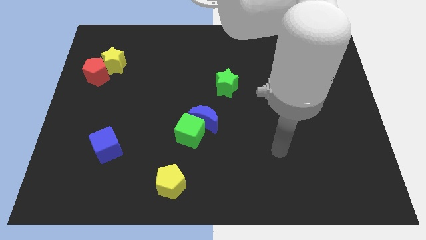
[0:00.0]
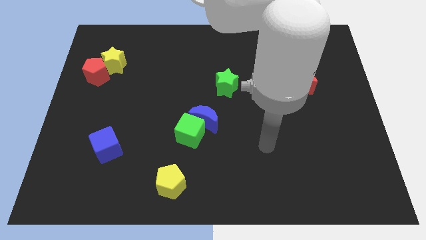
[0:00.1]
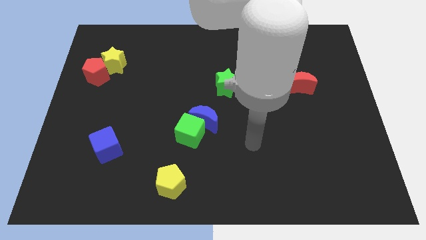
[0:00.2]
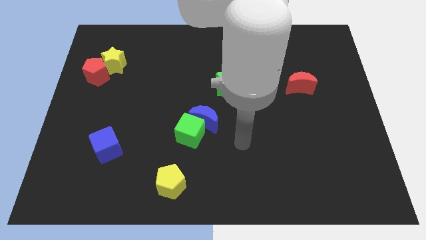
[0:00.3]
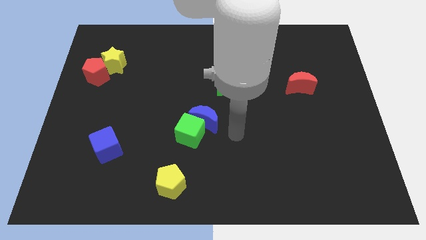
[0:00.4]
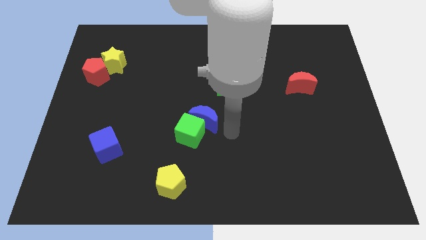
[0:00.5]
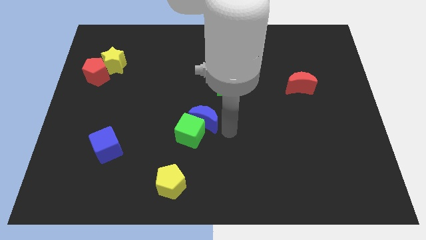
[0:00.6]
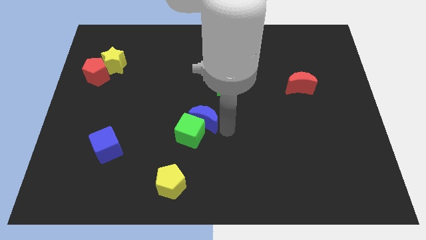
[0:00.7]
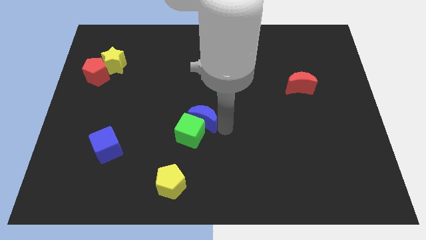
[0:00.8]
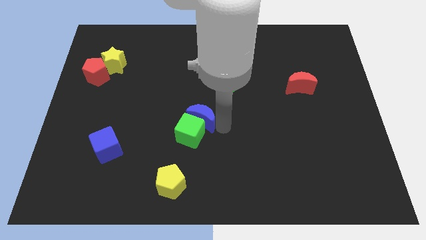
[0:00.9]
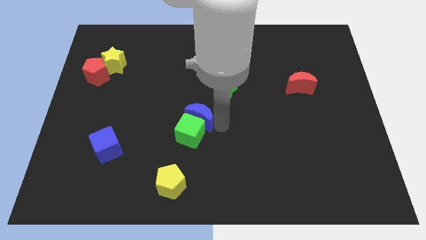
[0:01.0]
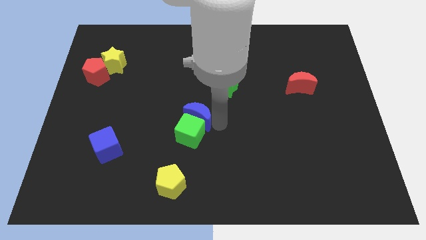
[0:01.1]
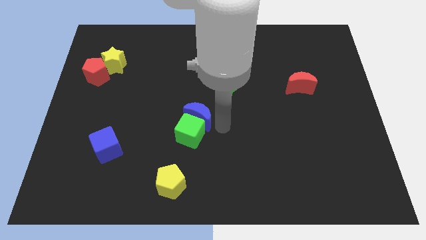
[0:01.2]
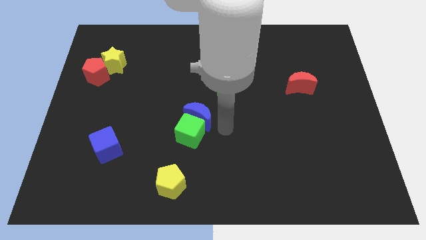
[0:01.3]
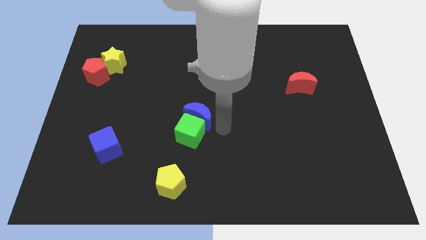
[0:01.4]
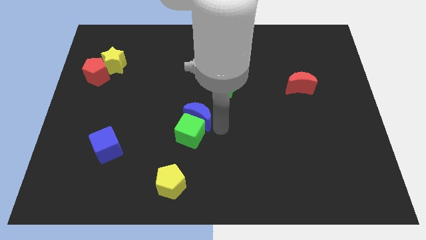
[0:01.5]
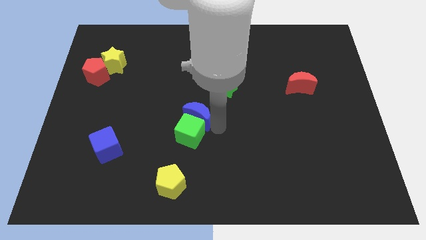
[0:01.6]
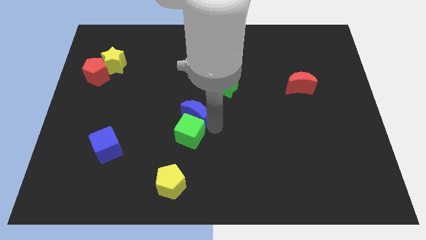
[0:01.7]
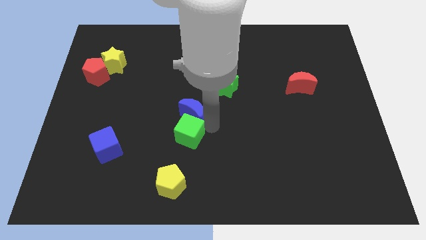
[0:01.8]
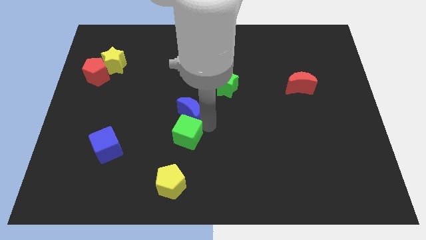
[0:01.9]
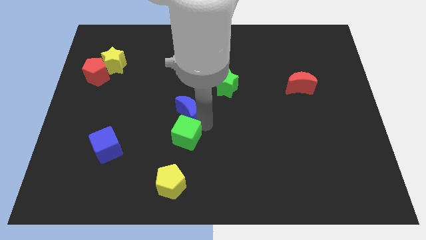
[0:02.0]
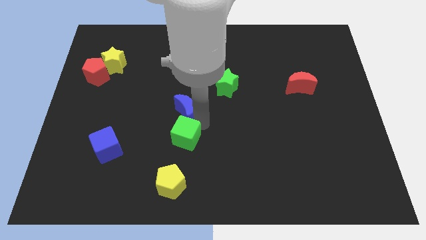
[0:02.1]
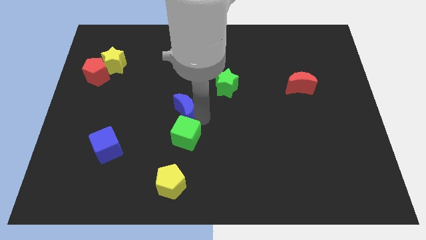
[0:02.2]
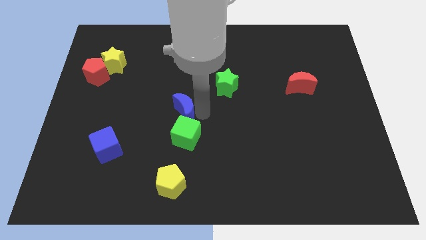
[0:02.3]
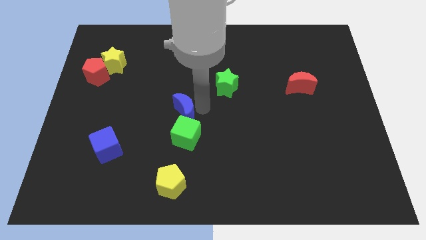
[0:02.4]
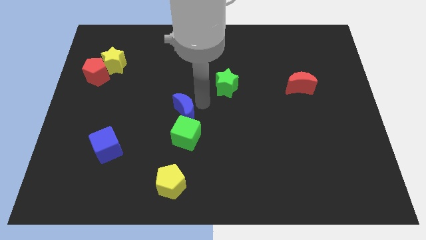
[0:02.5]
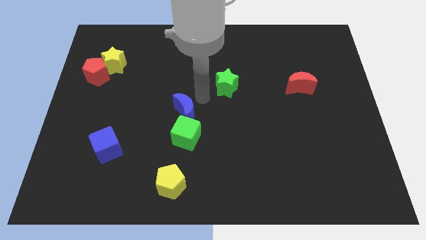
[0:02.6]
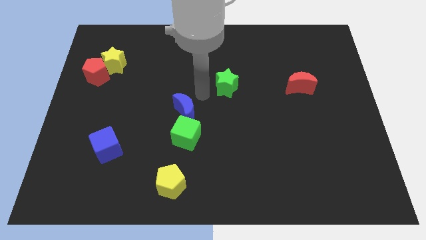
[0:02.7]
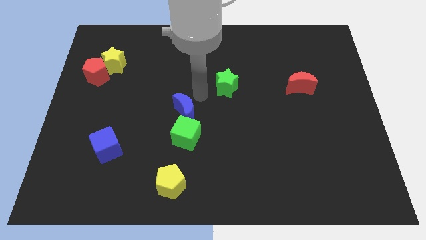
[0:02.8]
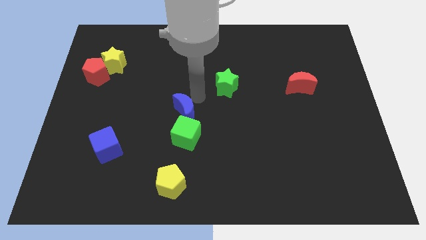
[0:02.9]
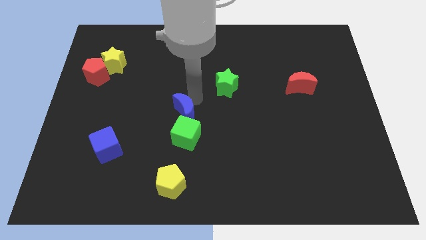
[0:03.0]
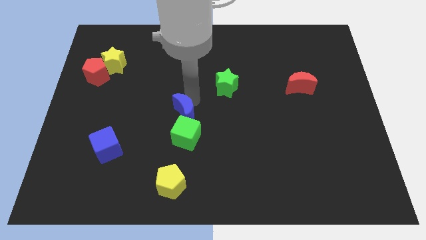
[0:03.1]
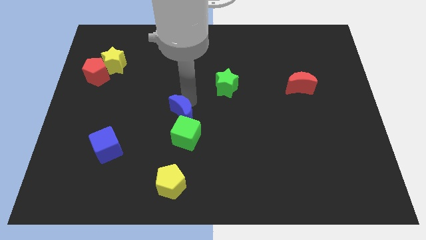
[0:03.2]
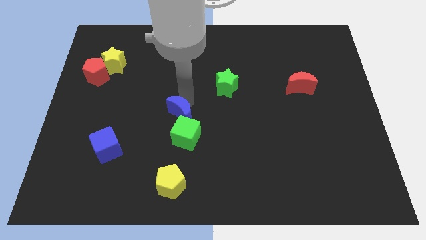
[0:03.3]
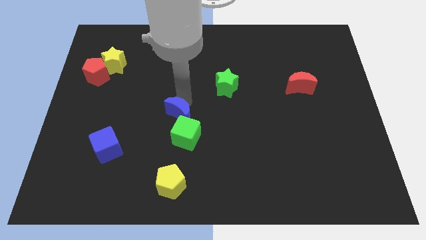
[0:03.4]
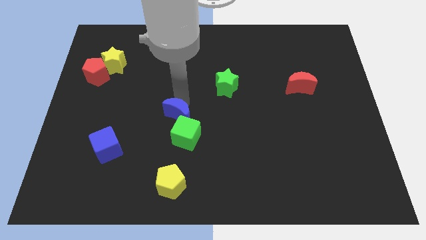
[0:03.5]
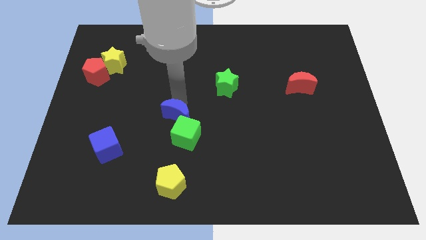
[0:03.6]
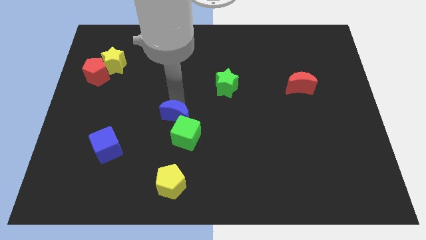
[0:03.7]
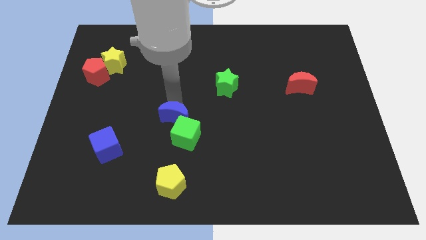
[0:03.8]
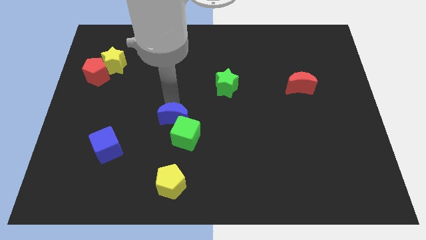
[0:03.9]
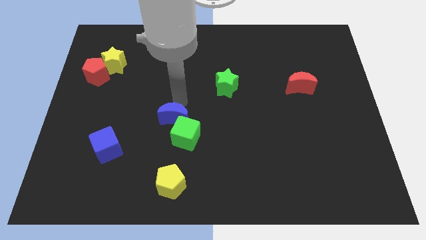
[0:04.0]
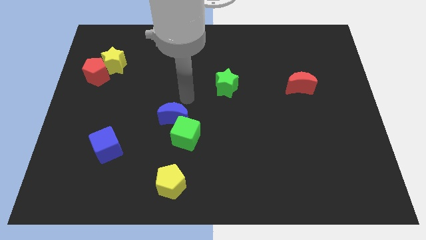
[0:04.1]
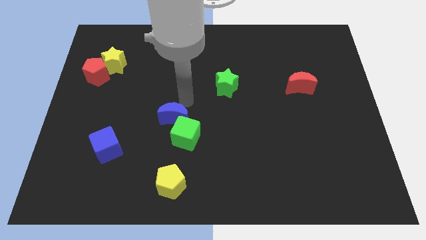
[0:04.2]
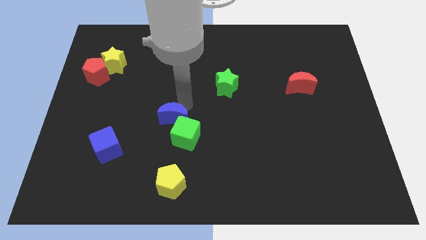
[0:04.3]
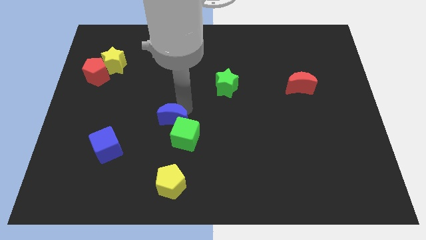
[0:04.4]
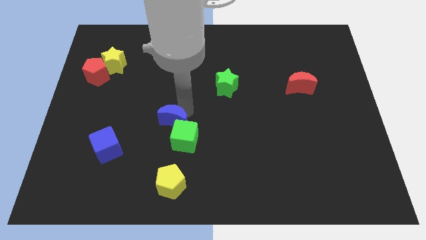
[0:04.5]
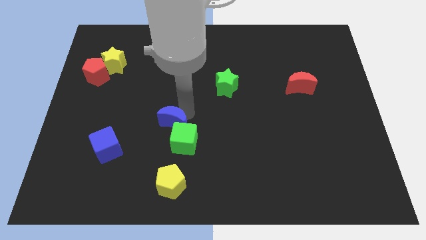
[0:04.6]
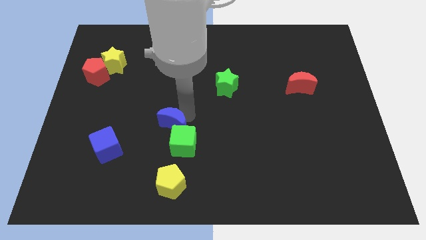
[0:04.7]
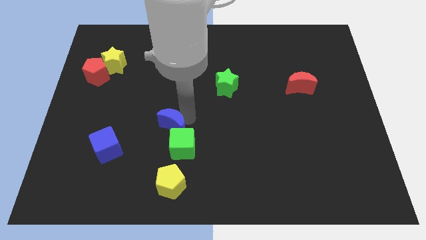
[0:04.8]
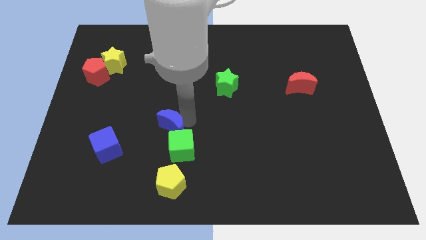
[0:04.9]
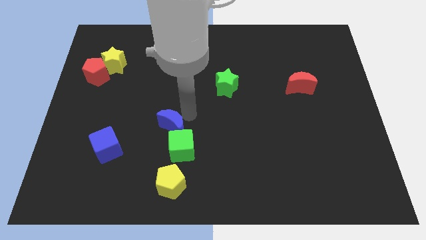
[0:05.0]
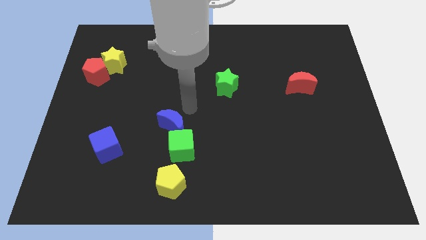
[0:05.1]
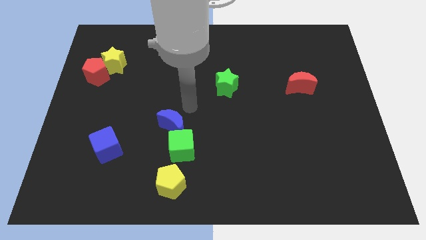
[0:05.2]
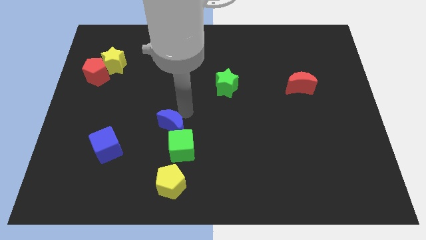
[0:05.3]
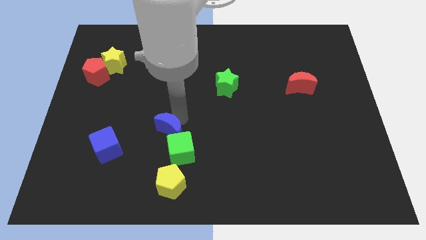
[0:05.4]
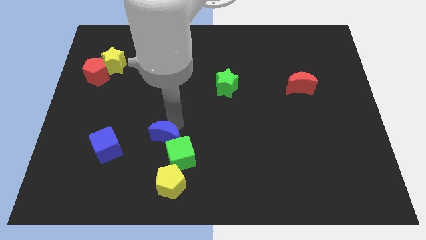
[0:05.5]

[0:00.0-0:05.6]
slightly move the blue moon down and then left

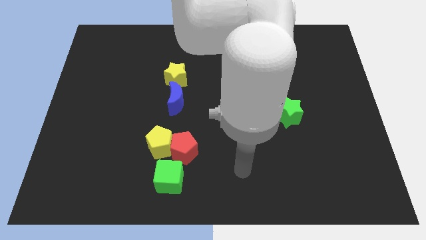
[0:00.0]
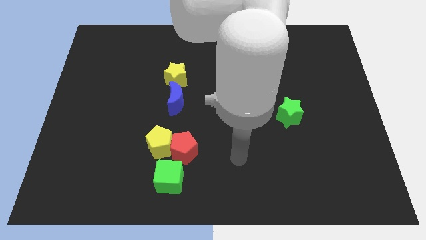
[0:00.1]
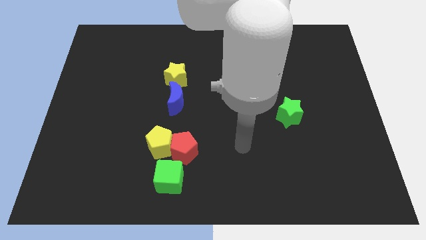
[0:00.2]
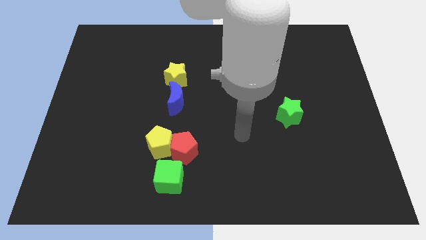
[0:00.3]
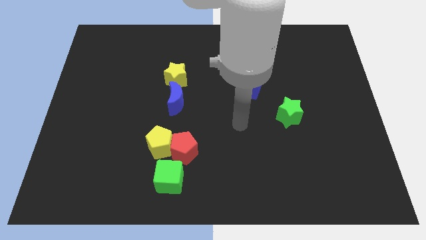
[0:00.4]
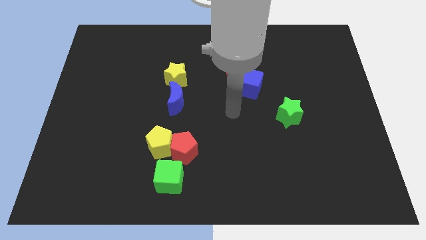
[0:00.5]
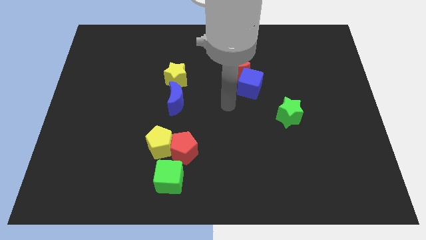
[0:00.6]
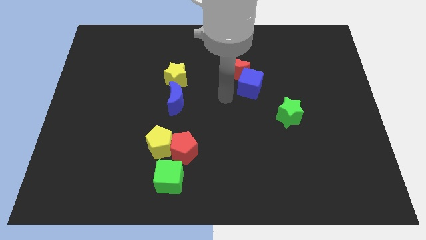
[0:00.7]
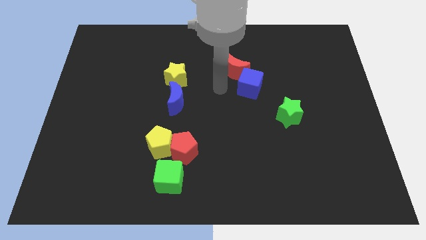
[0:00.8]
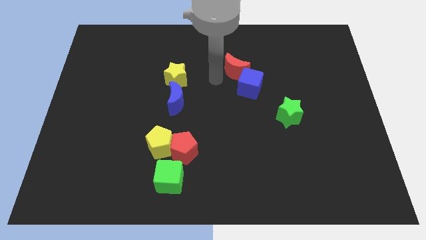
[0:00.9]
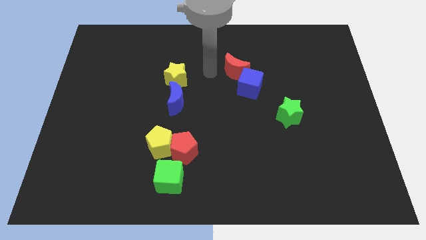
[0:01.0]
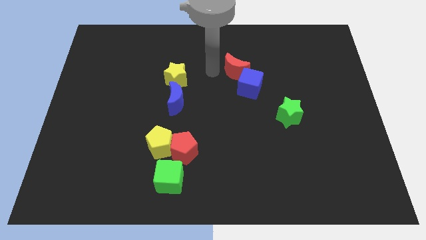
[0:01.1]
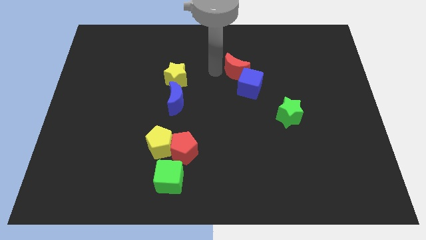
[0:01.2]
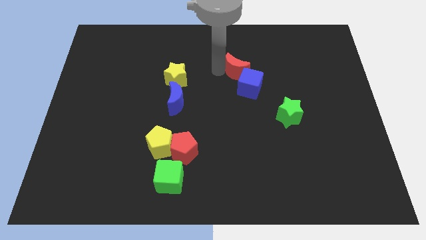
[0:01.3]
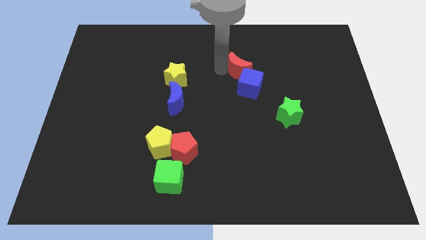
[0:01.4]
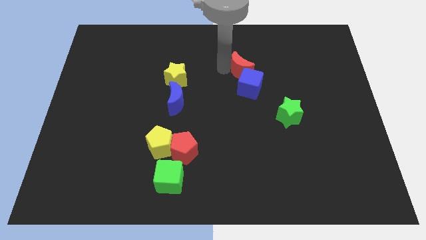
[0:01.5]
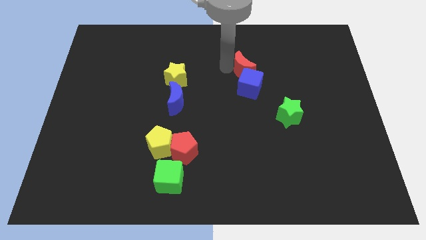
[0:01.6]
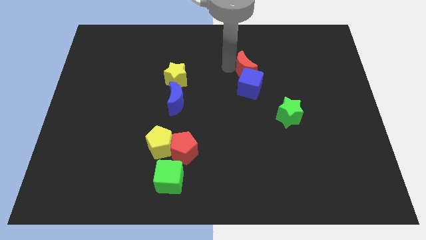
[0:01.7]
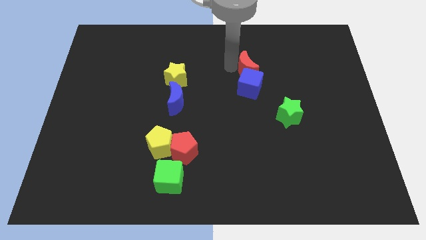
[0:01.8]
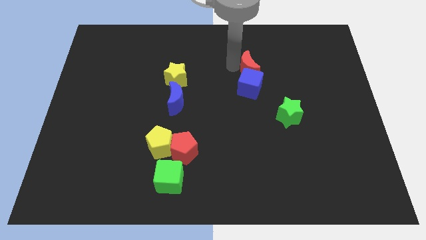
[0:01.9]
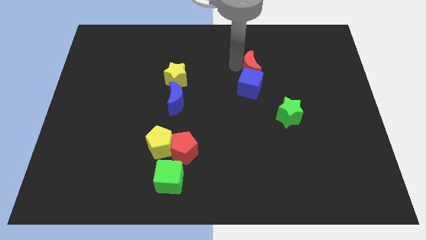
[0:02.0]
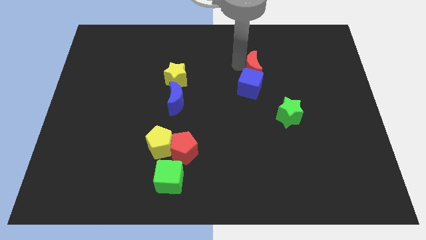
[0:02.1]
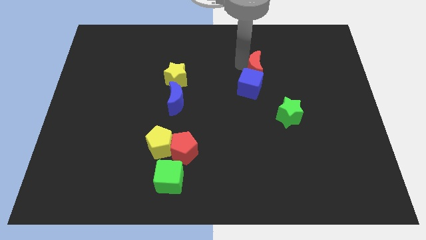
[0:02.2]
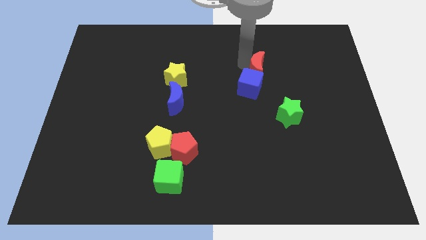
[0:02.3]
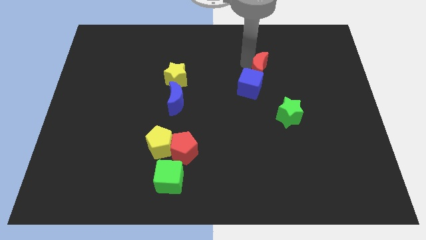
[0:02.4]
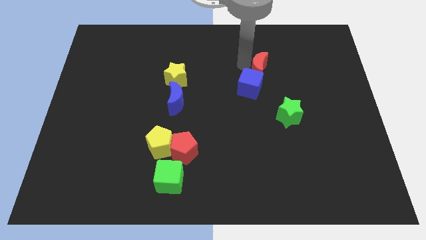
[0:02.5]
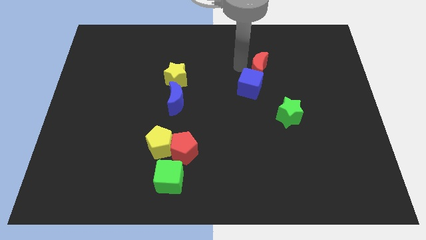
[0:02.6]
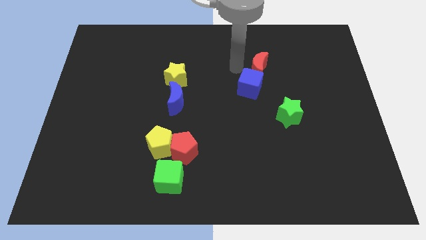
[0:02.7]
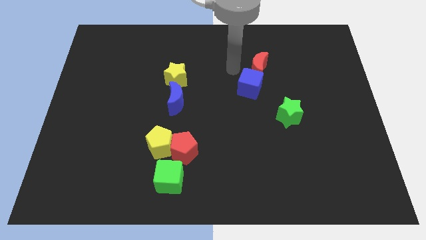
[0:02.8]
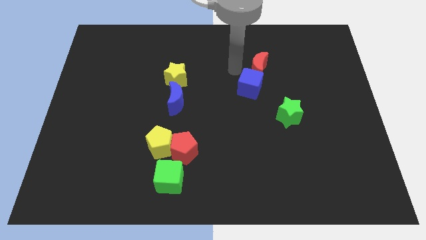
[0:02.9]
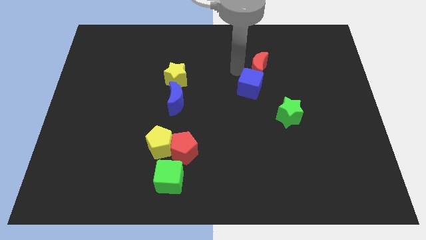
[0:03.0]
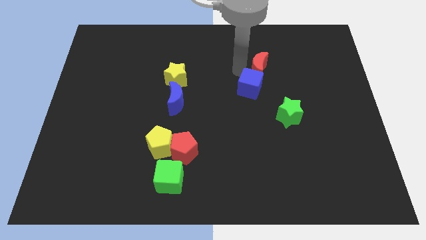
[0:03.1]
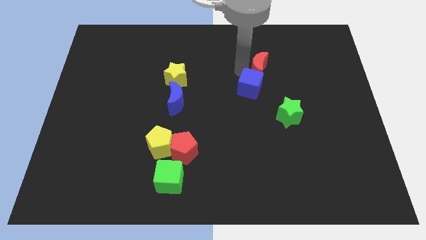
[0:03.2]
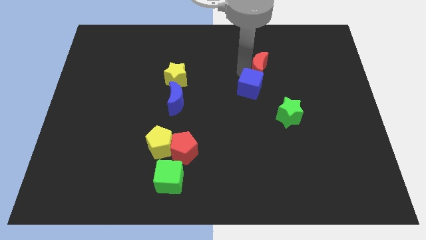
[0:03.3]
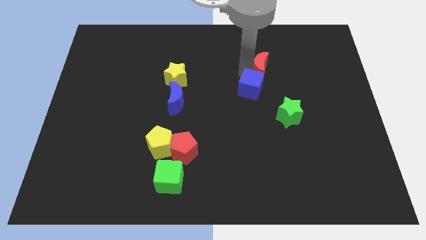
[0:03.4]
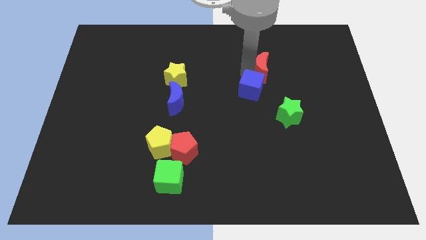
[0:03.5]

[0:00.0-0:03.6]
move the red moon a little right
